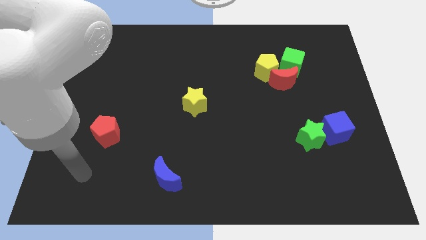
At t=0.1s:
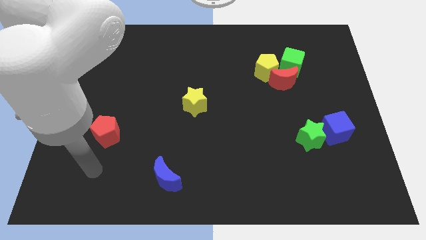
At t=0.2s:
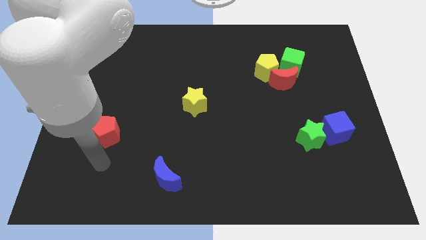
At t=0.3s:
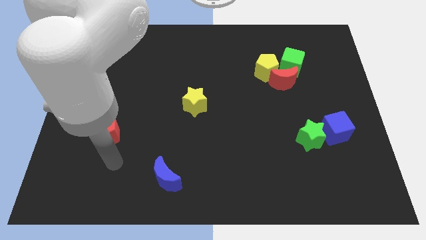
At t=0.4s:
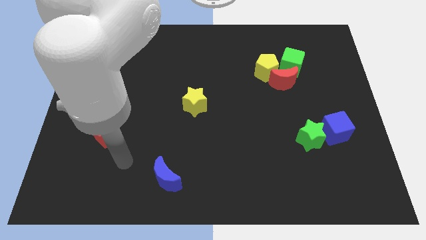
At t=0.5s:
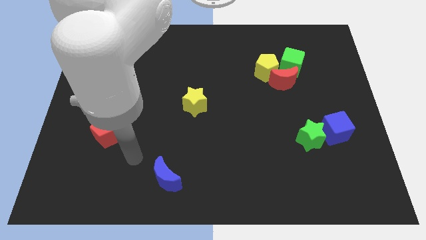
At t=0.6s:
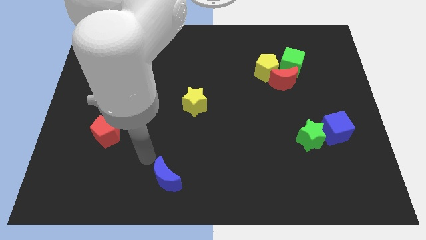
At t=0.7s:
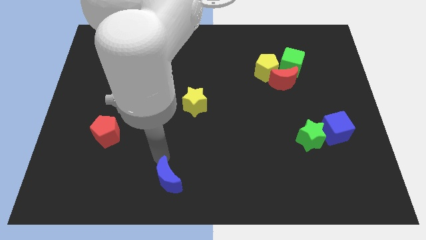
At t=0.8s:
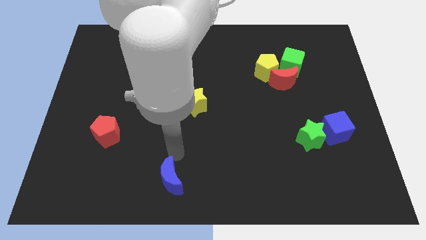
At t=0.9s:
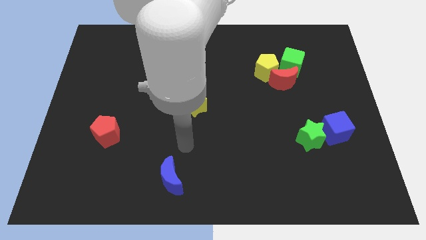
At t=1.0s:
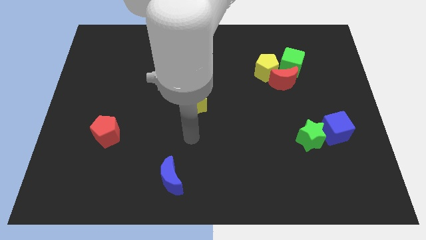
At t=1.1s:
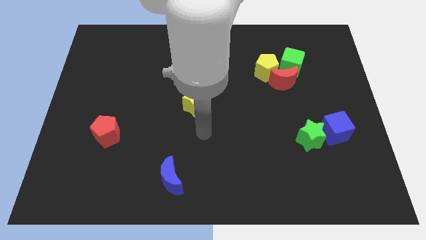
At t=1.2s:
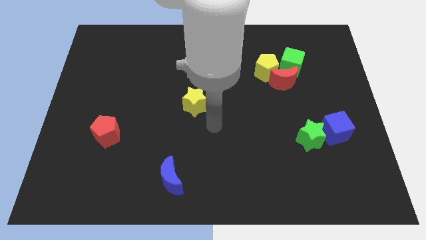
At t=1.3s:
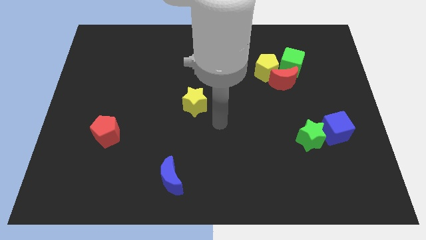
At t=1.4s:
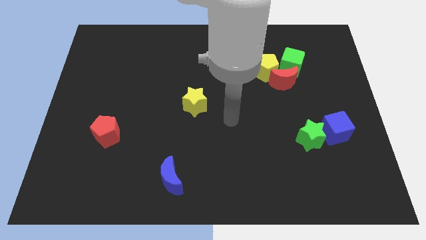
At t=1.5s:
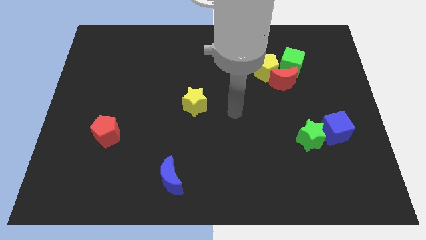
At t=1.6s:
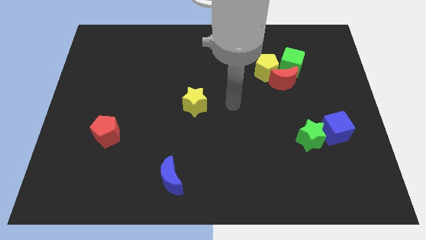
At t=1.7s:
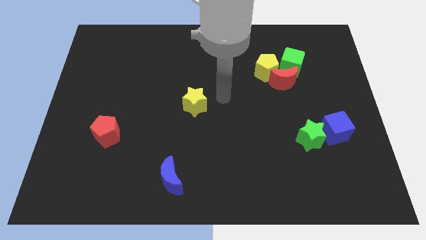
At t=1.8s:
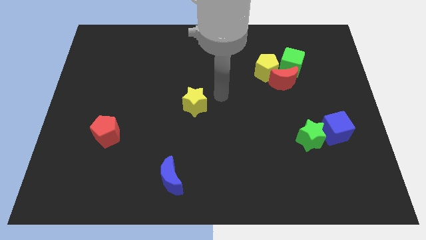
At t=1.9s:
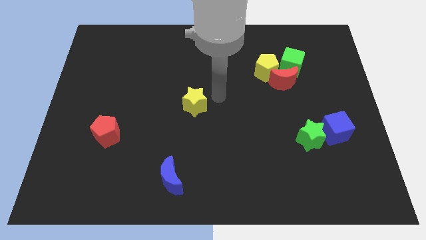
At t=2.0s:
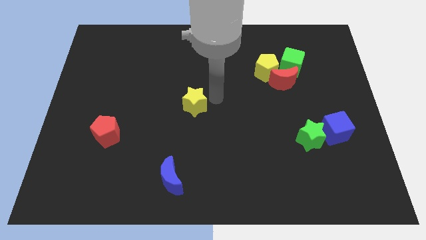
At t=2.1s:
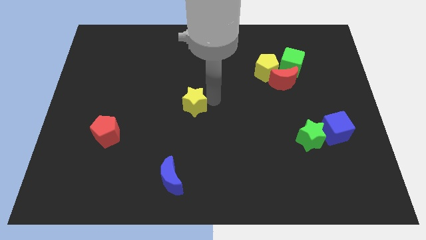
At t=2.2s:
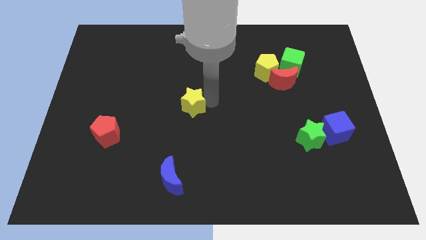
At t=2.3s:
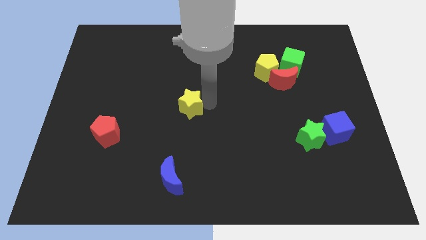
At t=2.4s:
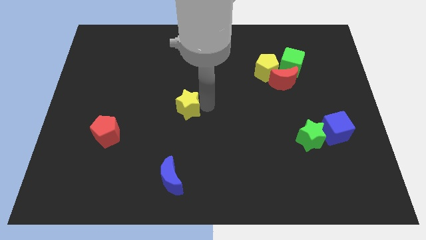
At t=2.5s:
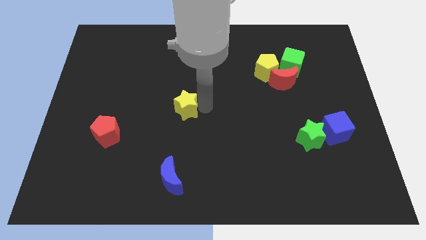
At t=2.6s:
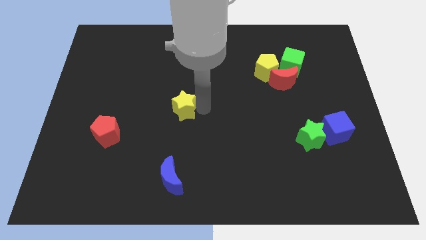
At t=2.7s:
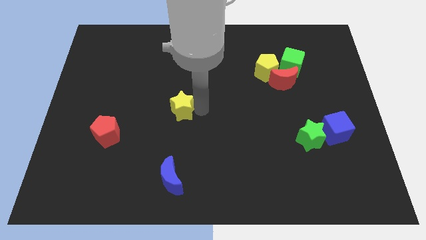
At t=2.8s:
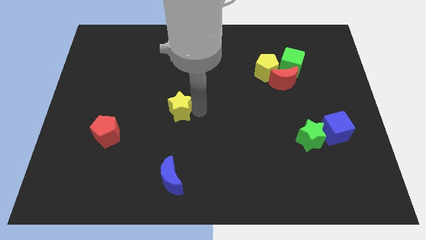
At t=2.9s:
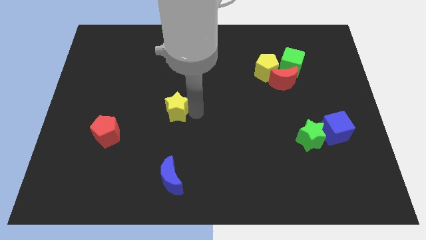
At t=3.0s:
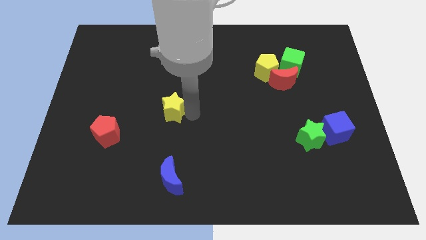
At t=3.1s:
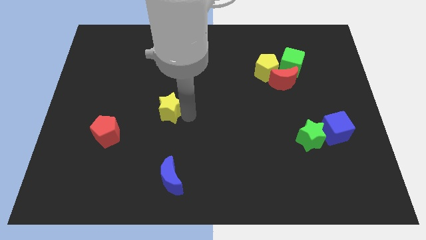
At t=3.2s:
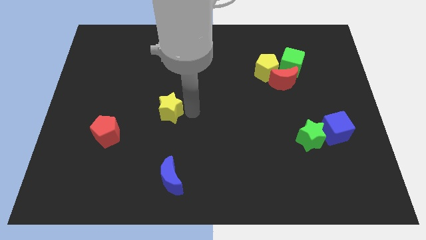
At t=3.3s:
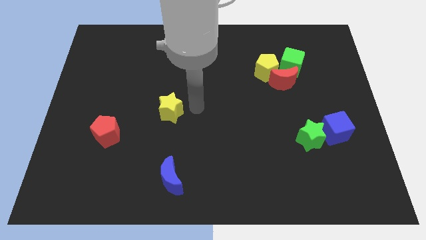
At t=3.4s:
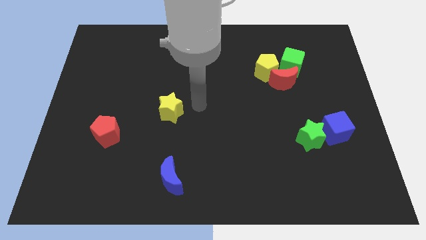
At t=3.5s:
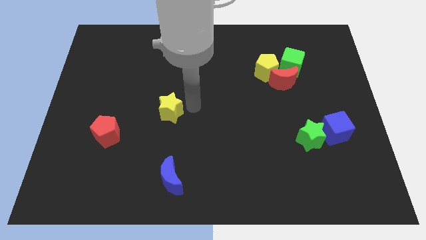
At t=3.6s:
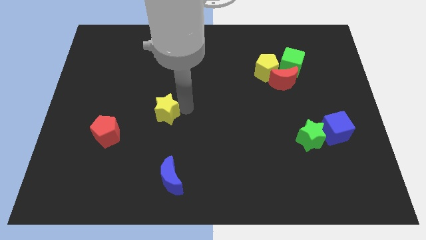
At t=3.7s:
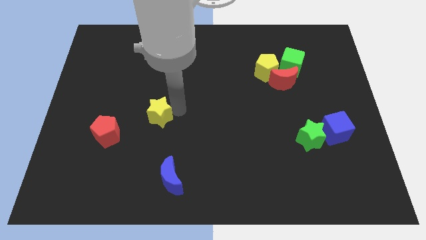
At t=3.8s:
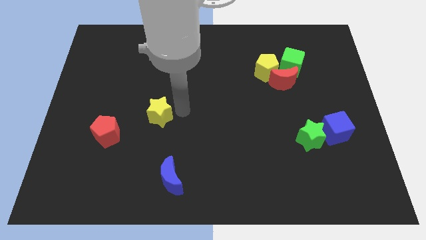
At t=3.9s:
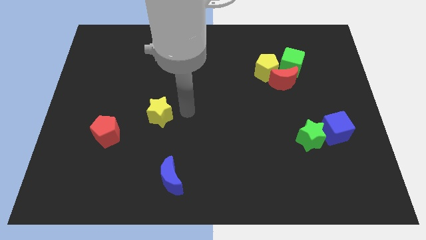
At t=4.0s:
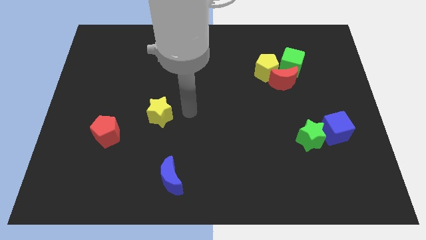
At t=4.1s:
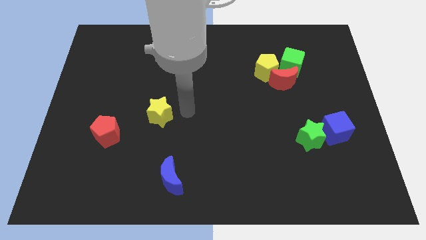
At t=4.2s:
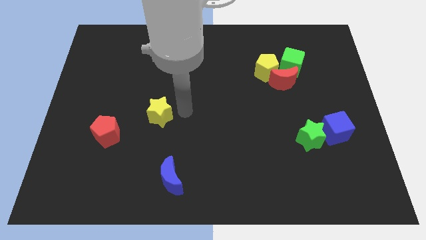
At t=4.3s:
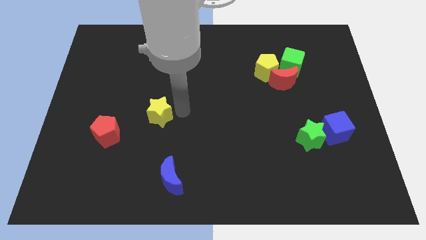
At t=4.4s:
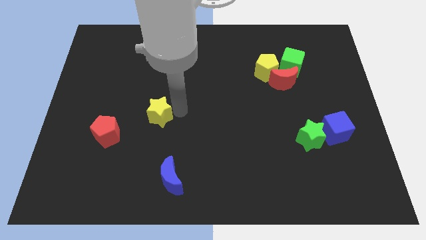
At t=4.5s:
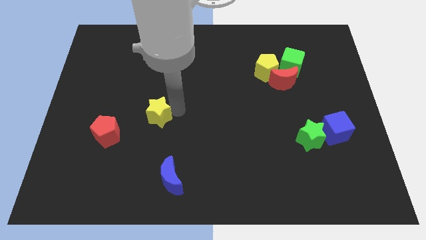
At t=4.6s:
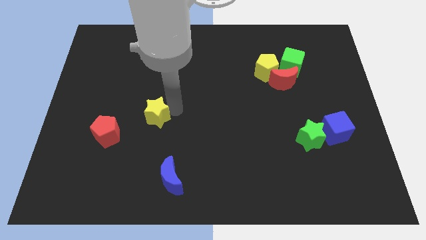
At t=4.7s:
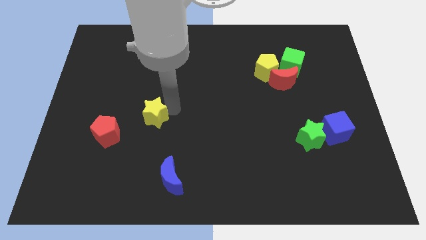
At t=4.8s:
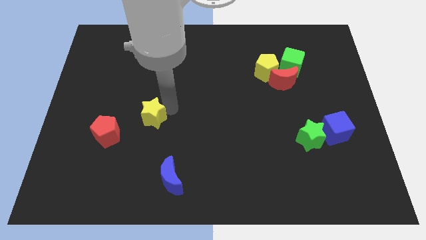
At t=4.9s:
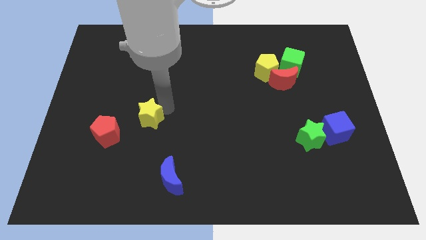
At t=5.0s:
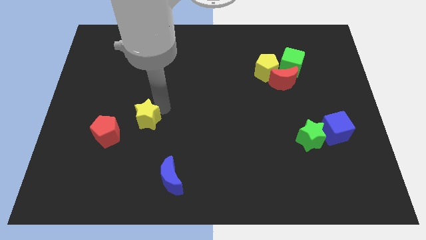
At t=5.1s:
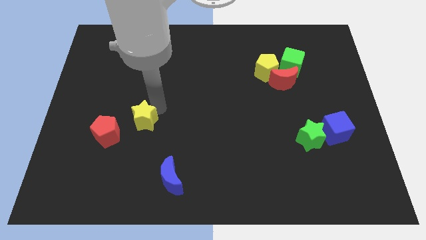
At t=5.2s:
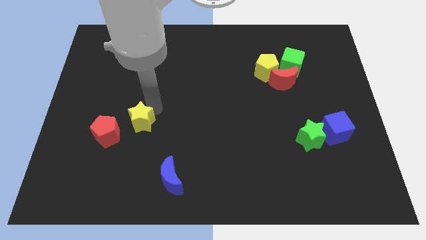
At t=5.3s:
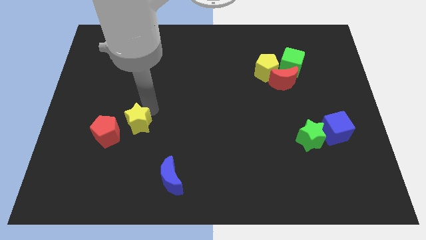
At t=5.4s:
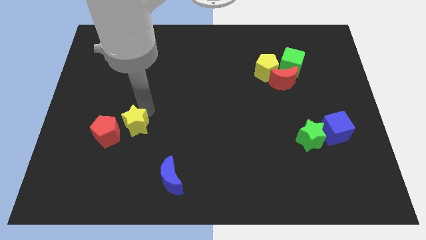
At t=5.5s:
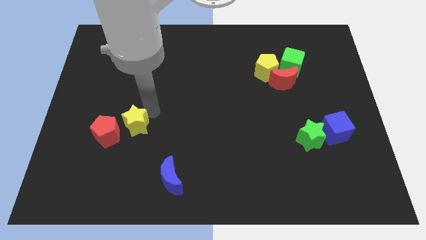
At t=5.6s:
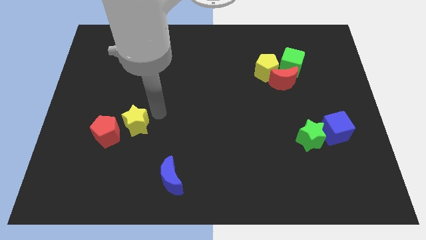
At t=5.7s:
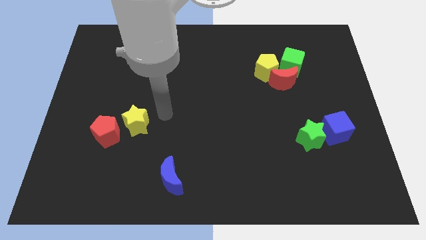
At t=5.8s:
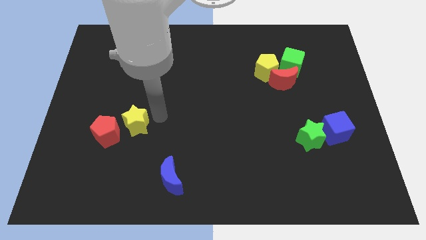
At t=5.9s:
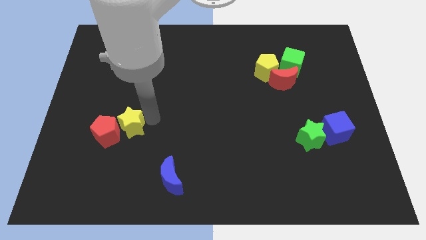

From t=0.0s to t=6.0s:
put the yellow star close to the red pentagon

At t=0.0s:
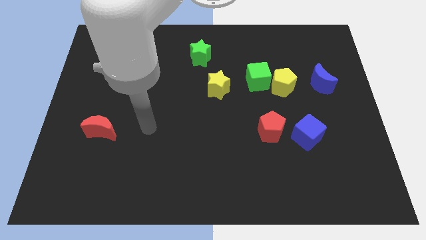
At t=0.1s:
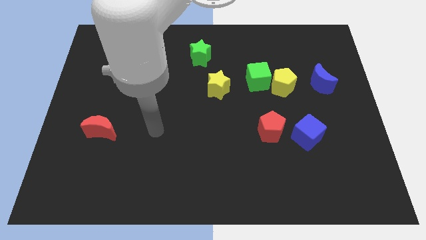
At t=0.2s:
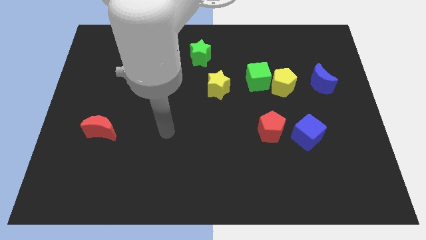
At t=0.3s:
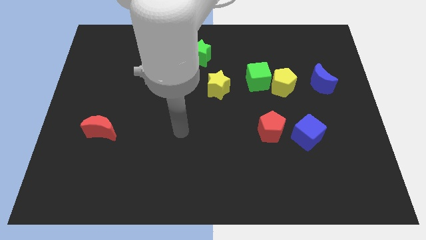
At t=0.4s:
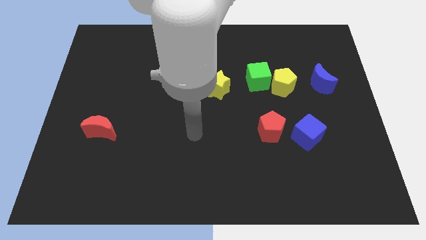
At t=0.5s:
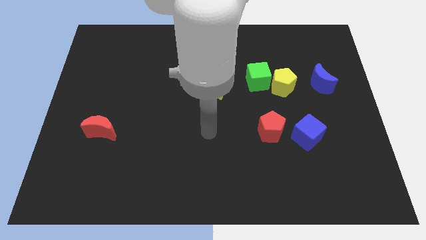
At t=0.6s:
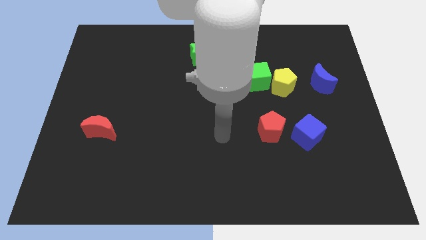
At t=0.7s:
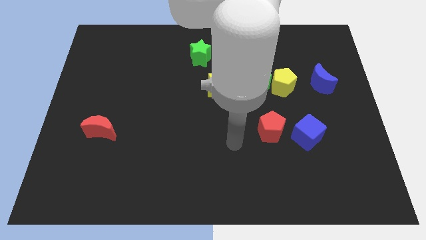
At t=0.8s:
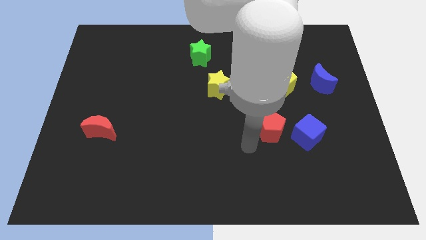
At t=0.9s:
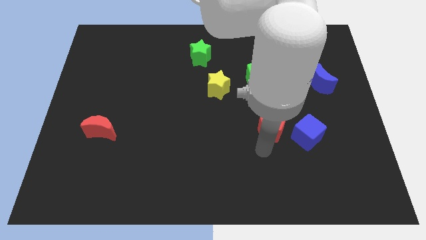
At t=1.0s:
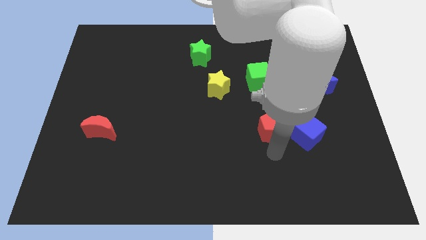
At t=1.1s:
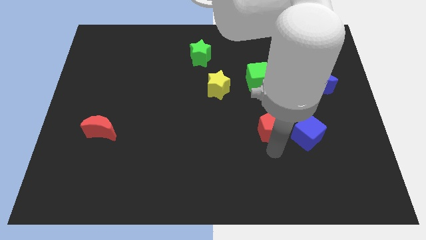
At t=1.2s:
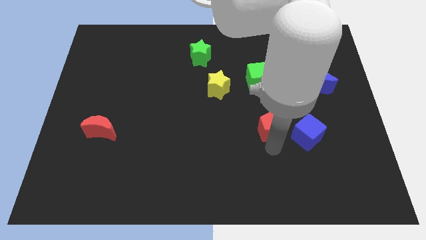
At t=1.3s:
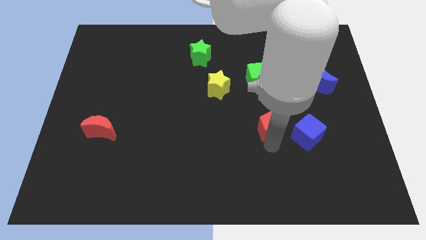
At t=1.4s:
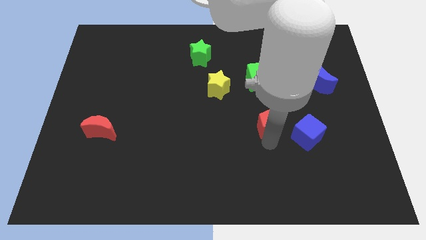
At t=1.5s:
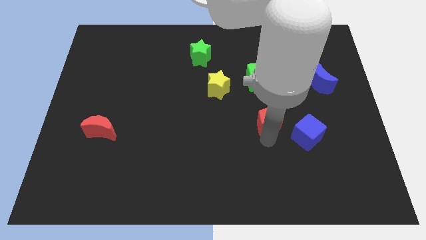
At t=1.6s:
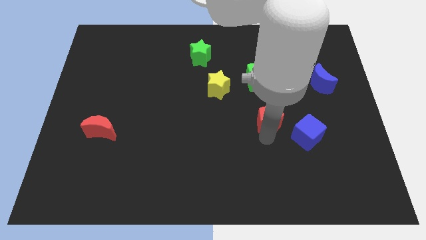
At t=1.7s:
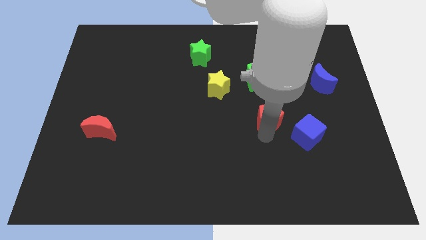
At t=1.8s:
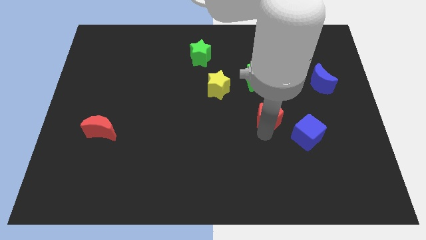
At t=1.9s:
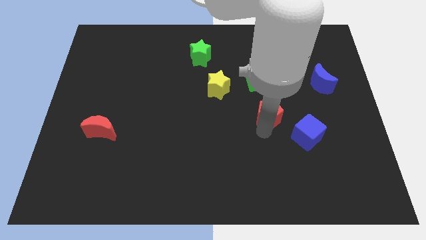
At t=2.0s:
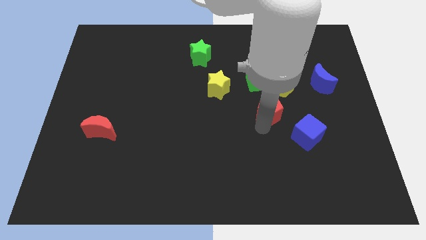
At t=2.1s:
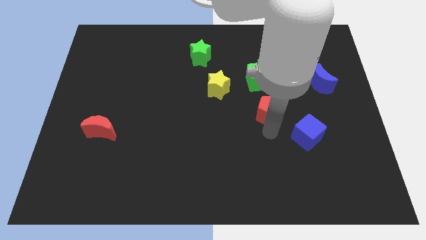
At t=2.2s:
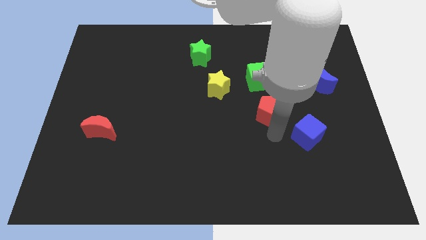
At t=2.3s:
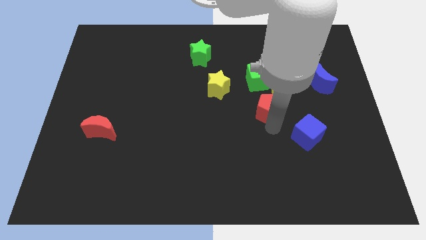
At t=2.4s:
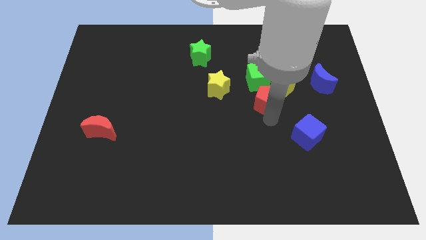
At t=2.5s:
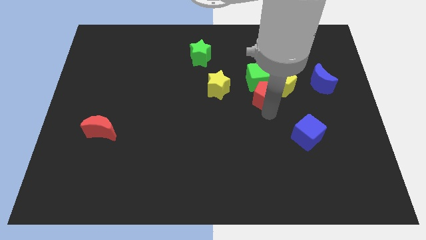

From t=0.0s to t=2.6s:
move the red pentagon to the green cube
